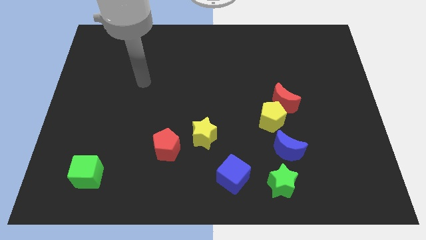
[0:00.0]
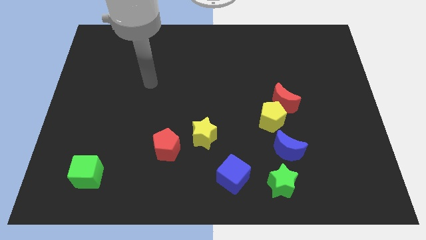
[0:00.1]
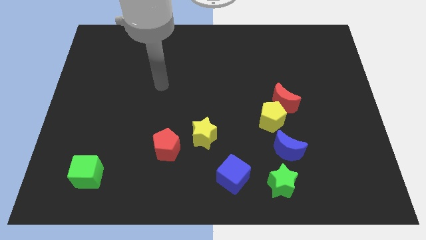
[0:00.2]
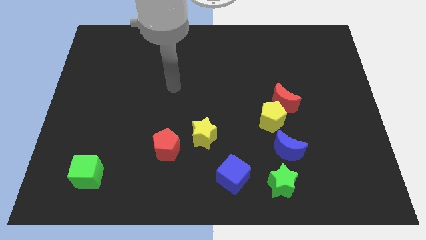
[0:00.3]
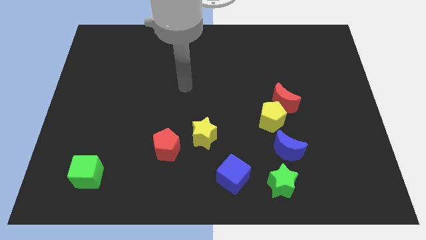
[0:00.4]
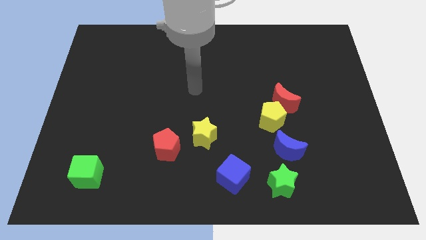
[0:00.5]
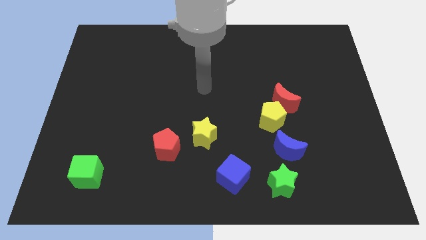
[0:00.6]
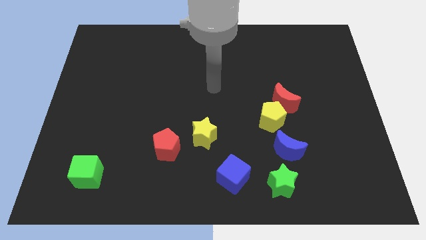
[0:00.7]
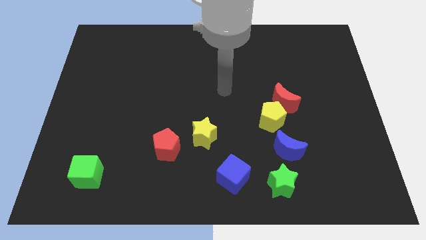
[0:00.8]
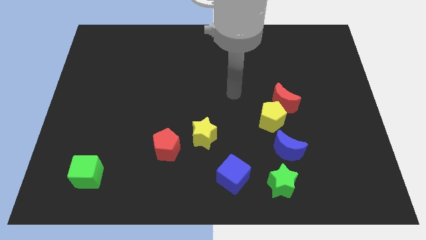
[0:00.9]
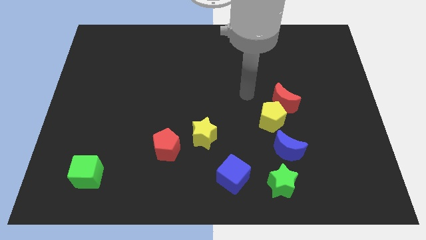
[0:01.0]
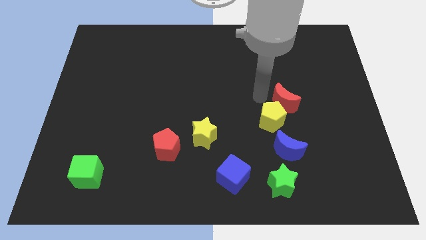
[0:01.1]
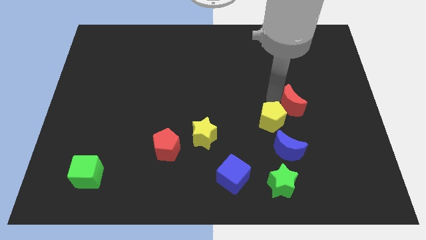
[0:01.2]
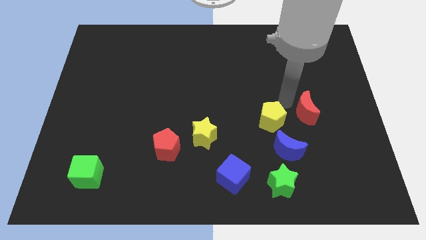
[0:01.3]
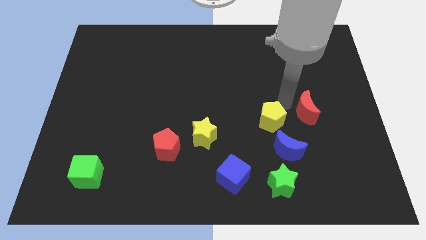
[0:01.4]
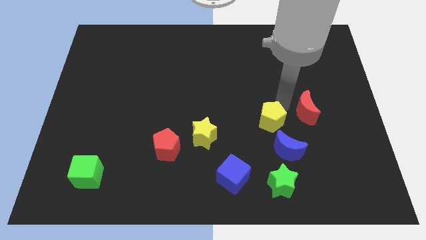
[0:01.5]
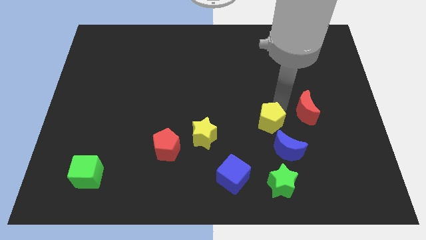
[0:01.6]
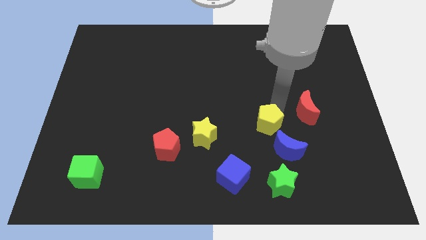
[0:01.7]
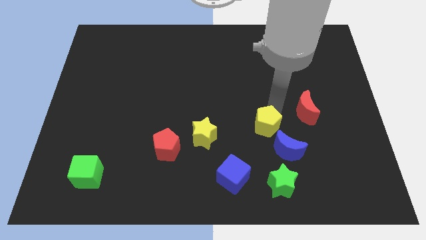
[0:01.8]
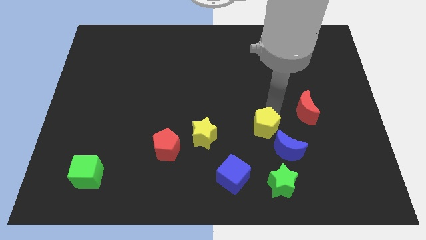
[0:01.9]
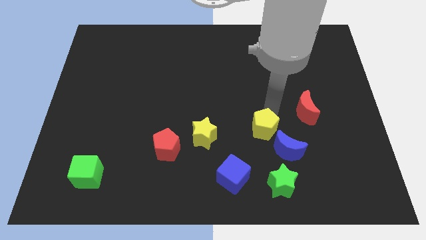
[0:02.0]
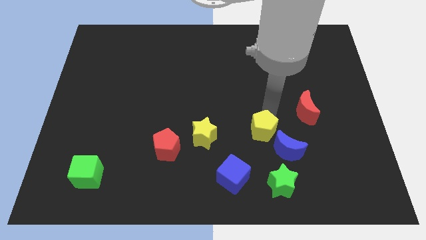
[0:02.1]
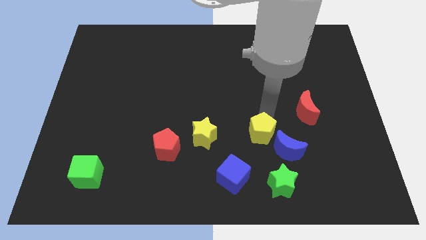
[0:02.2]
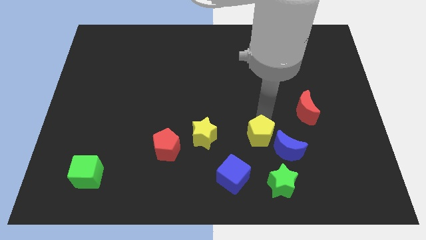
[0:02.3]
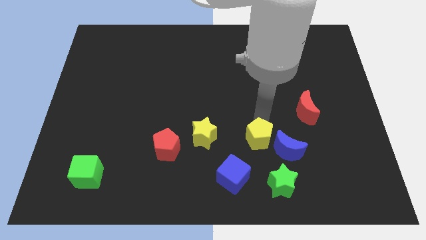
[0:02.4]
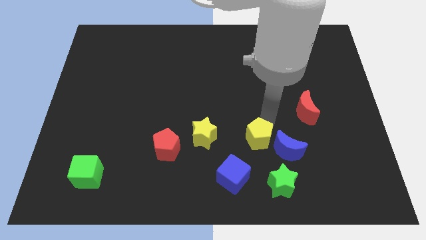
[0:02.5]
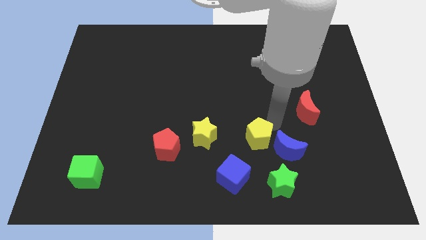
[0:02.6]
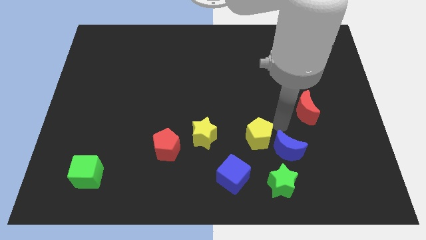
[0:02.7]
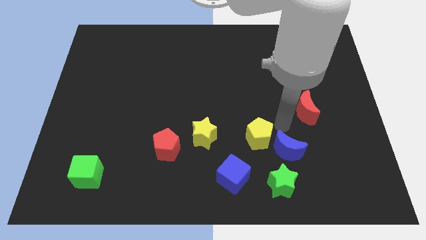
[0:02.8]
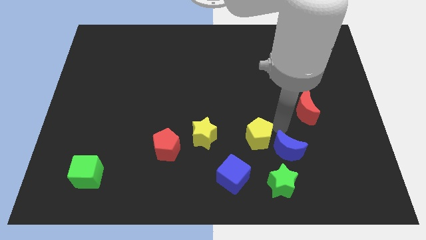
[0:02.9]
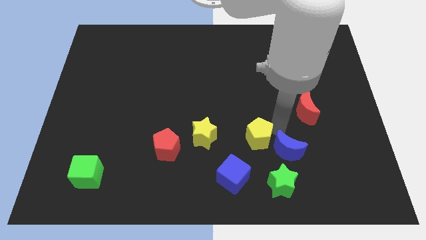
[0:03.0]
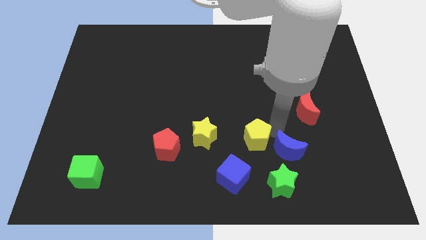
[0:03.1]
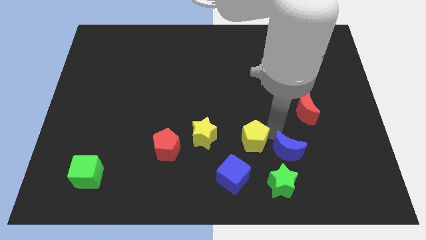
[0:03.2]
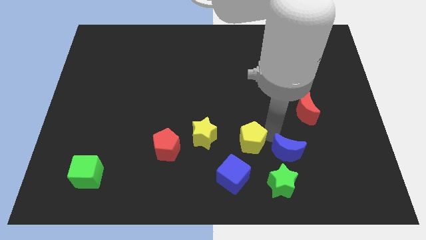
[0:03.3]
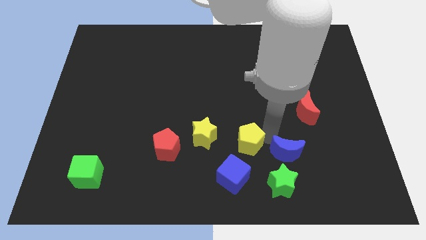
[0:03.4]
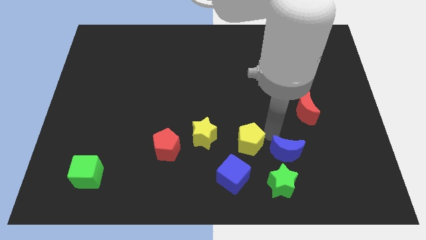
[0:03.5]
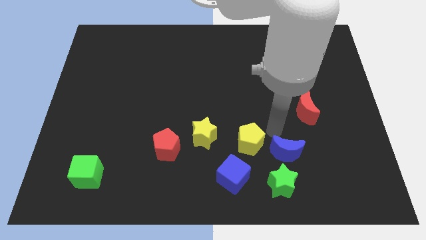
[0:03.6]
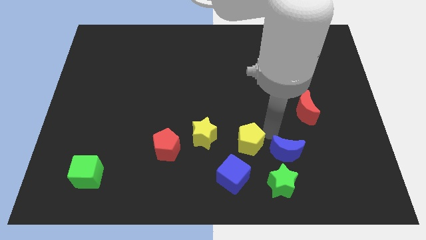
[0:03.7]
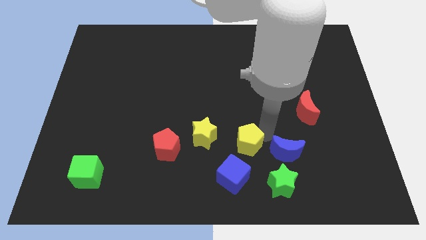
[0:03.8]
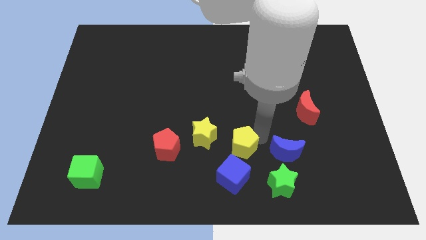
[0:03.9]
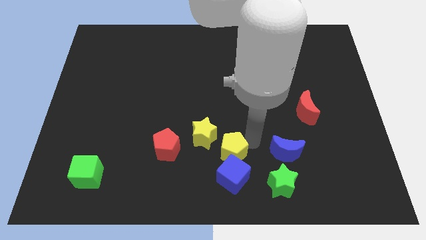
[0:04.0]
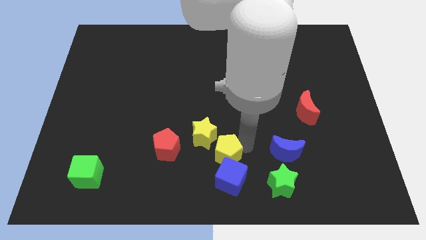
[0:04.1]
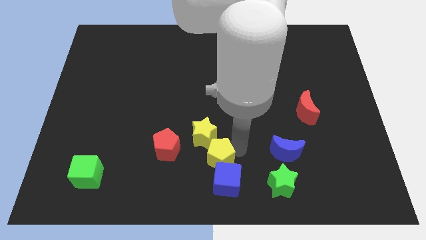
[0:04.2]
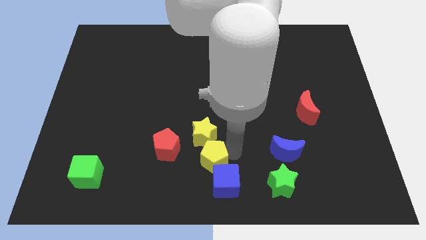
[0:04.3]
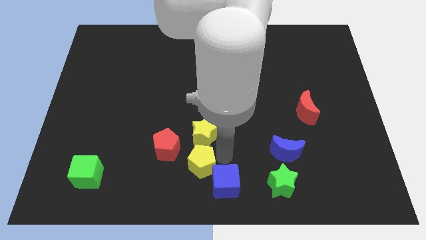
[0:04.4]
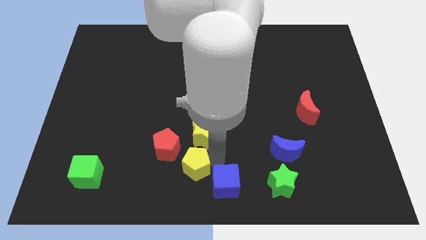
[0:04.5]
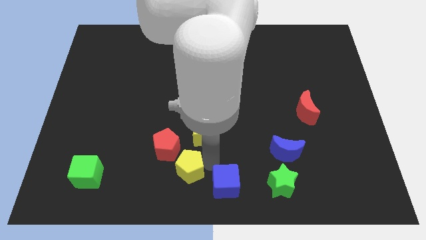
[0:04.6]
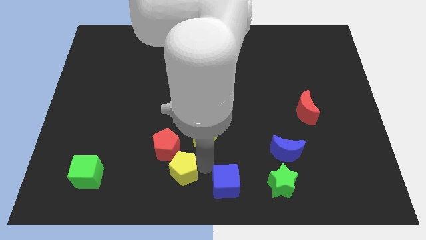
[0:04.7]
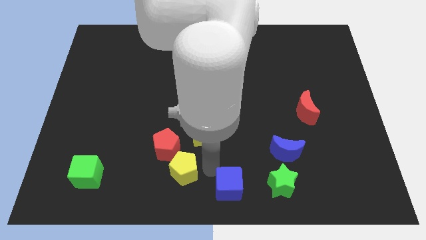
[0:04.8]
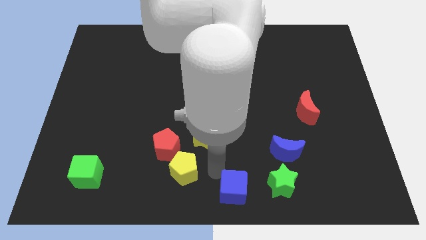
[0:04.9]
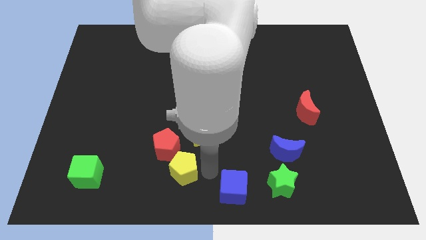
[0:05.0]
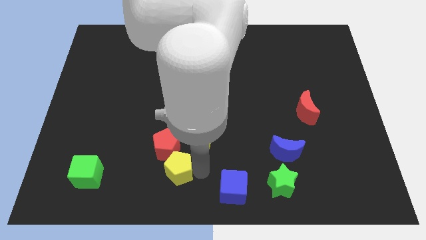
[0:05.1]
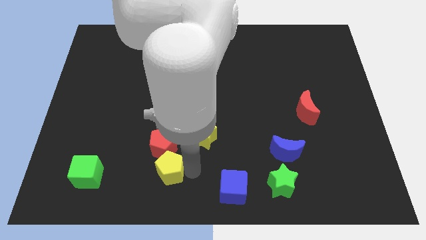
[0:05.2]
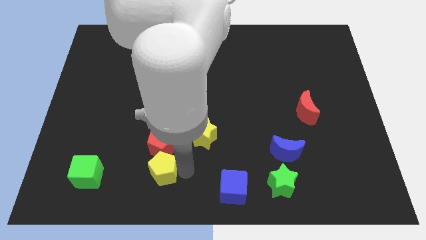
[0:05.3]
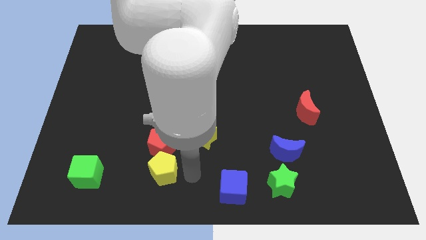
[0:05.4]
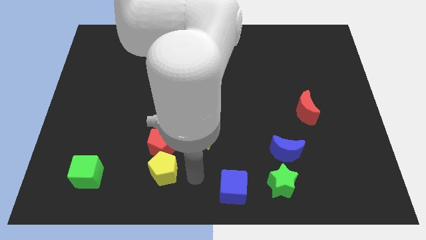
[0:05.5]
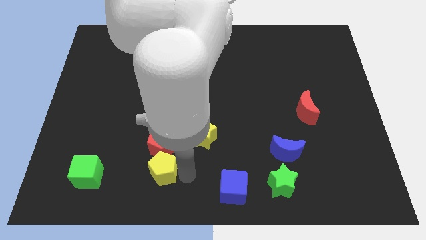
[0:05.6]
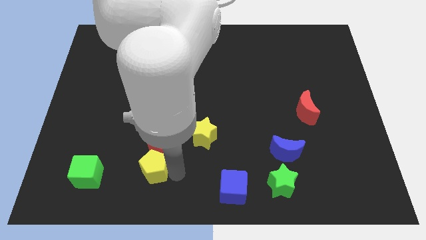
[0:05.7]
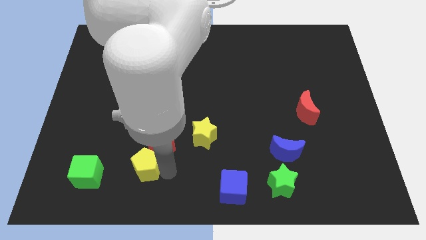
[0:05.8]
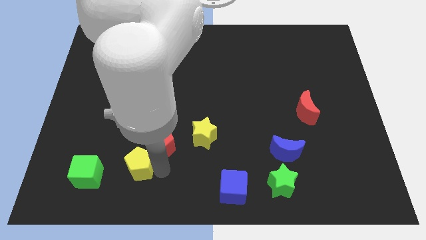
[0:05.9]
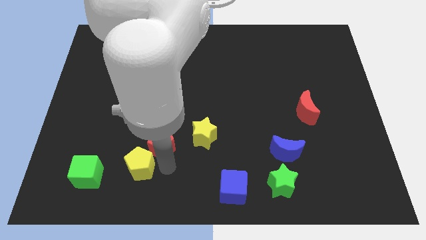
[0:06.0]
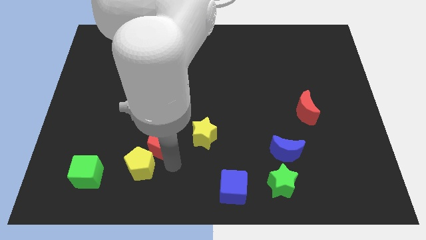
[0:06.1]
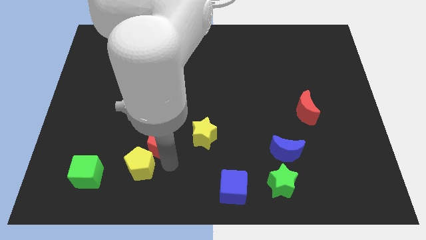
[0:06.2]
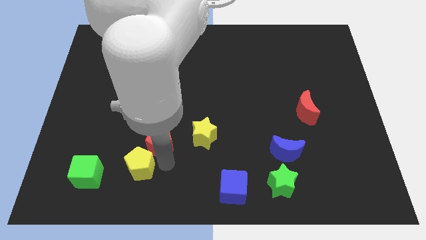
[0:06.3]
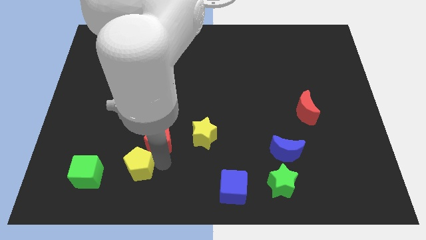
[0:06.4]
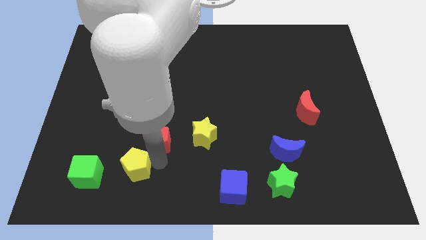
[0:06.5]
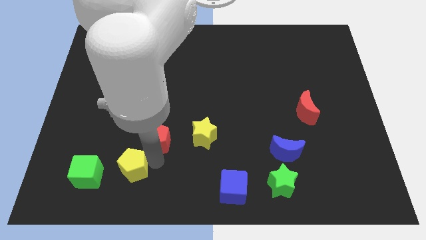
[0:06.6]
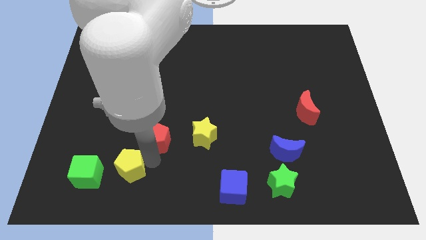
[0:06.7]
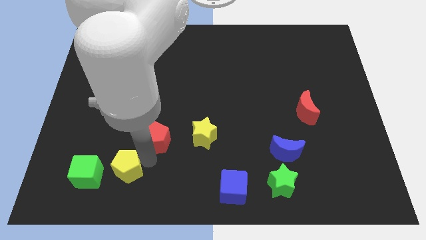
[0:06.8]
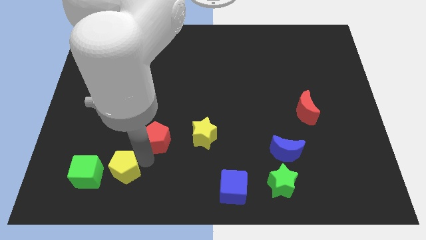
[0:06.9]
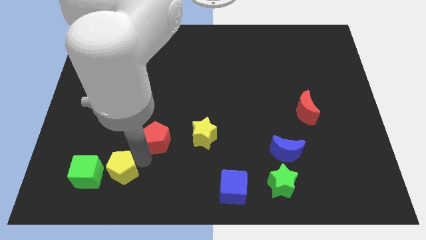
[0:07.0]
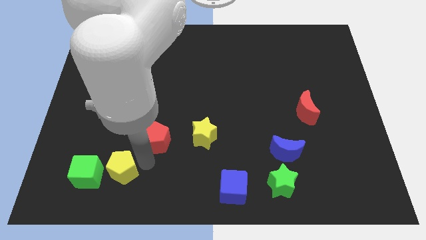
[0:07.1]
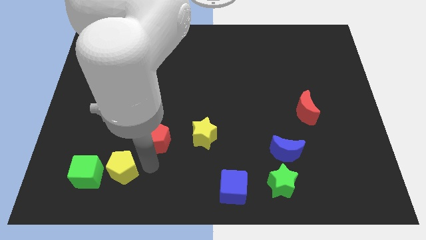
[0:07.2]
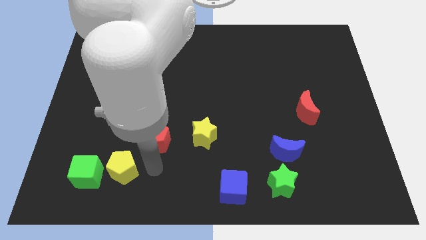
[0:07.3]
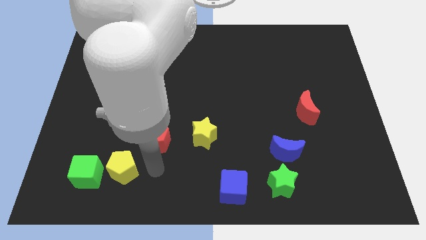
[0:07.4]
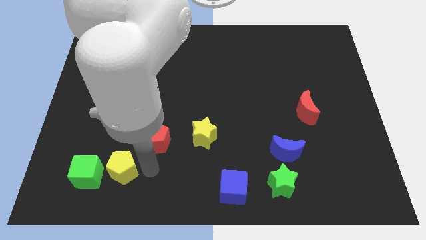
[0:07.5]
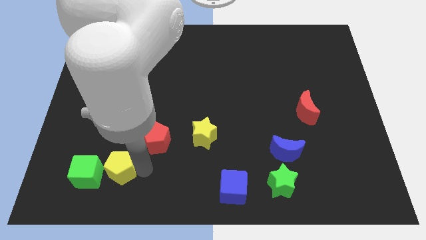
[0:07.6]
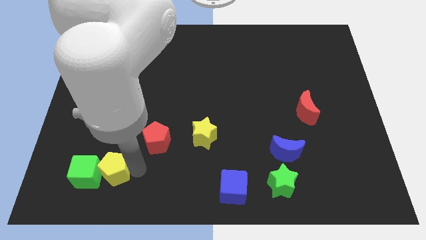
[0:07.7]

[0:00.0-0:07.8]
push the yellow pentagon towards the green cube
